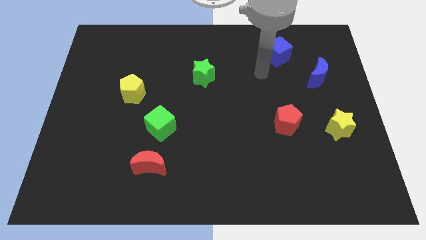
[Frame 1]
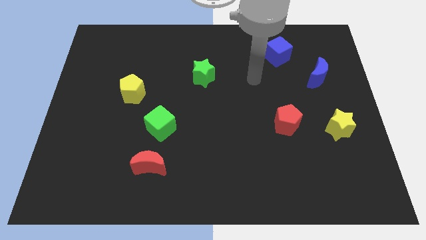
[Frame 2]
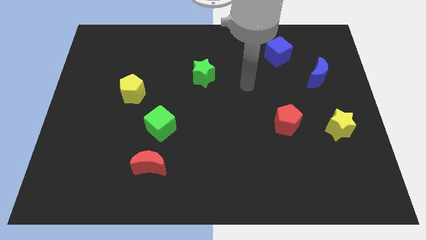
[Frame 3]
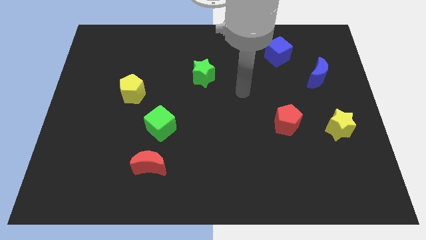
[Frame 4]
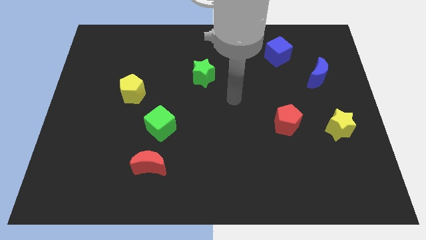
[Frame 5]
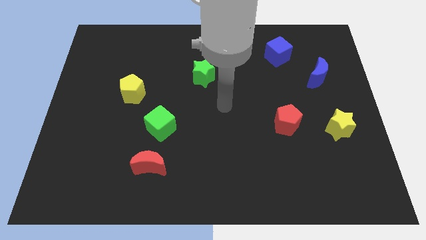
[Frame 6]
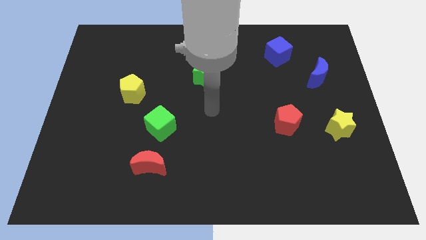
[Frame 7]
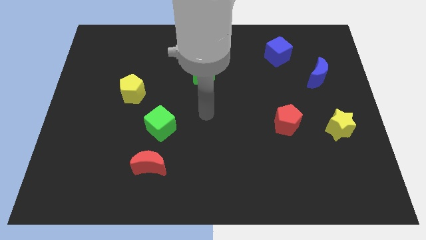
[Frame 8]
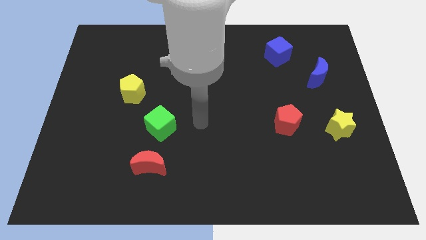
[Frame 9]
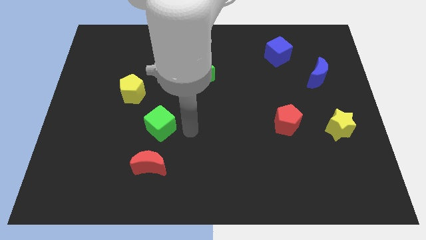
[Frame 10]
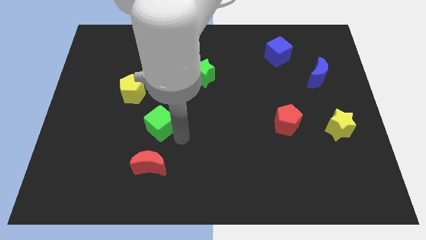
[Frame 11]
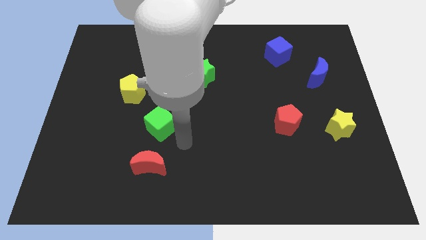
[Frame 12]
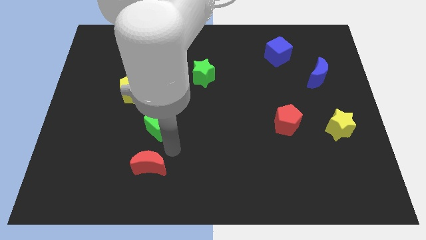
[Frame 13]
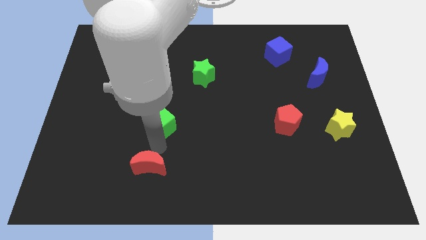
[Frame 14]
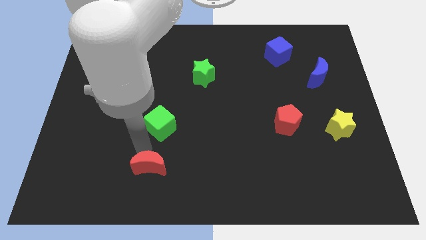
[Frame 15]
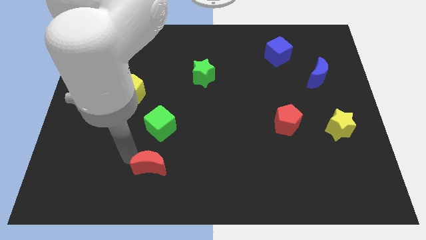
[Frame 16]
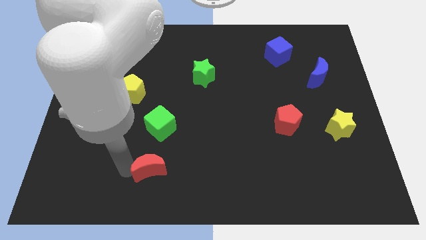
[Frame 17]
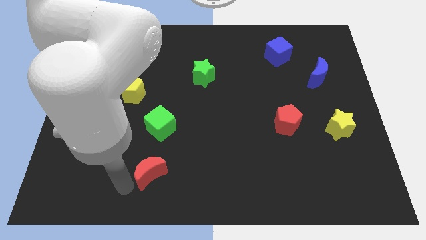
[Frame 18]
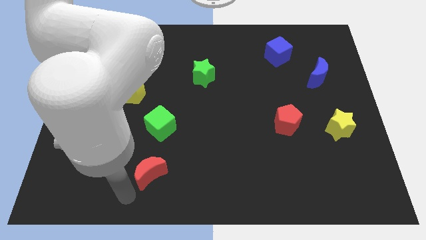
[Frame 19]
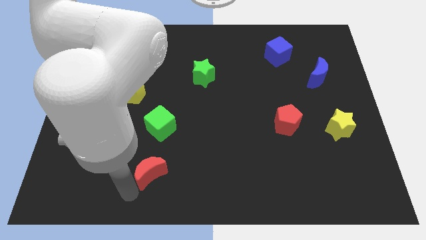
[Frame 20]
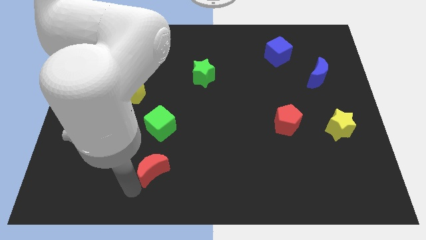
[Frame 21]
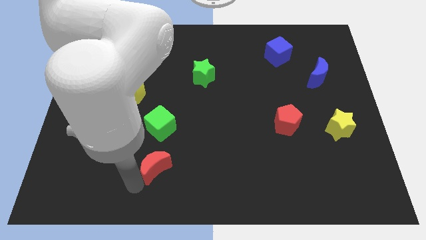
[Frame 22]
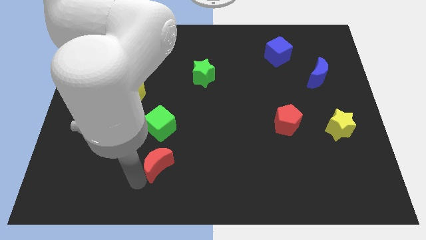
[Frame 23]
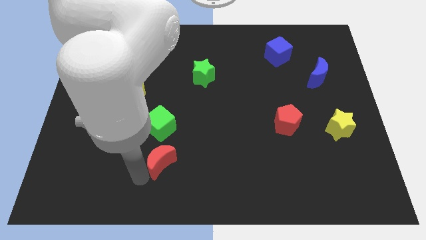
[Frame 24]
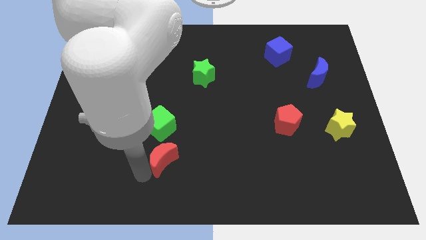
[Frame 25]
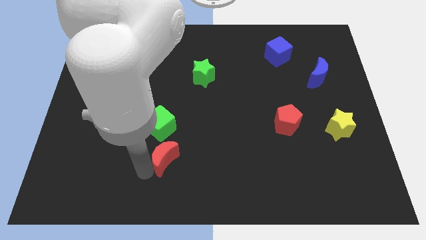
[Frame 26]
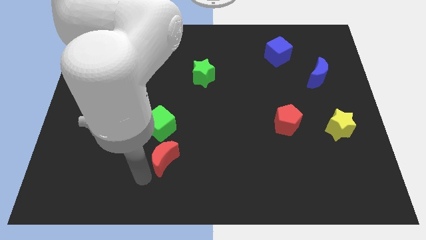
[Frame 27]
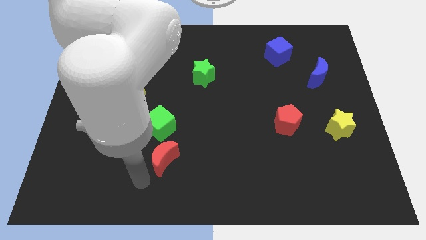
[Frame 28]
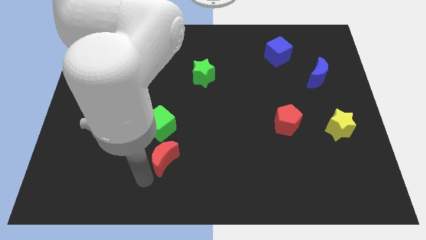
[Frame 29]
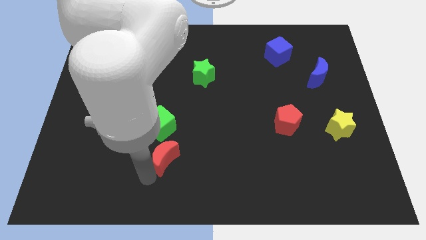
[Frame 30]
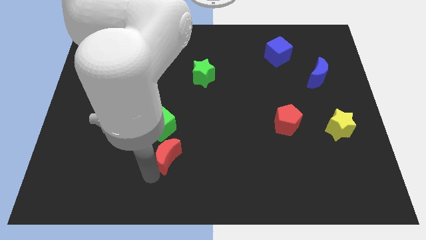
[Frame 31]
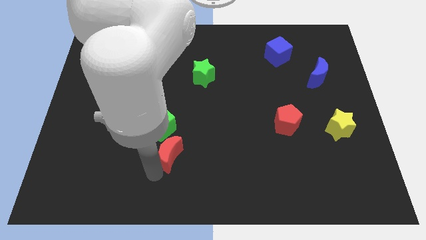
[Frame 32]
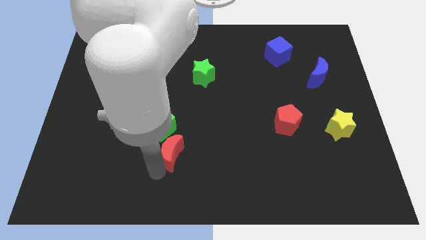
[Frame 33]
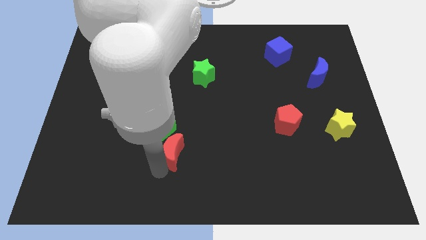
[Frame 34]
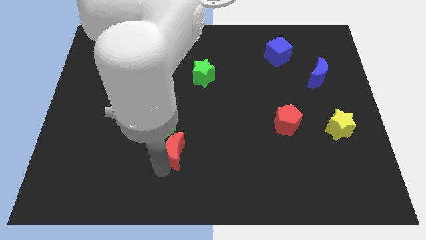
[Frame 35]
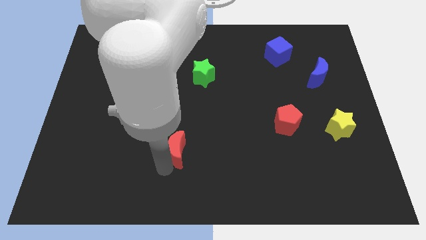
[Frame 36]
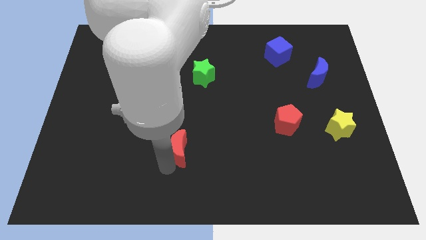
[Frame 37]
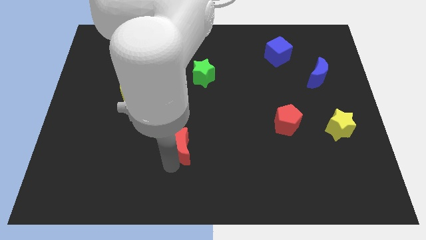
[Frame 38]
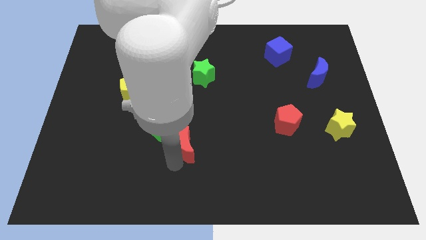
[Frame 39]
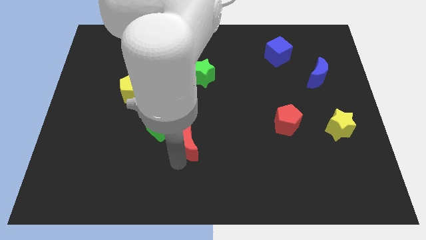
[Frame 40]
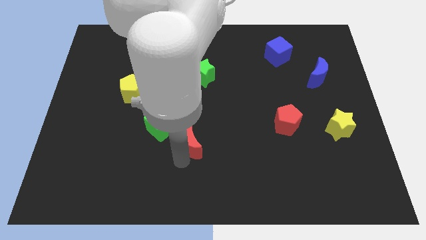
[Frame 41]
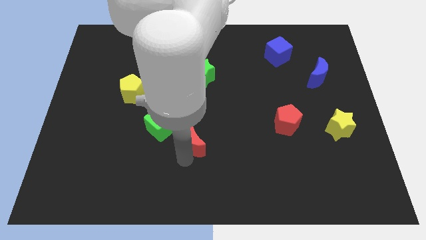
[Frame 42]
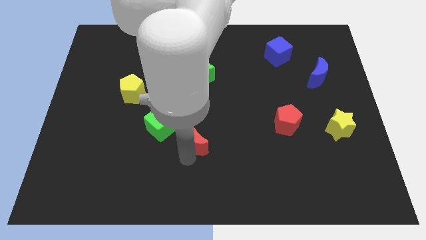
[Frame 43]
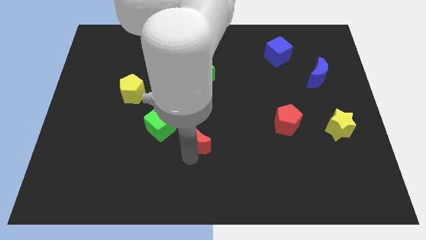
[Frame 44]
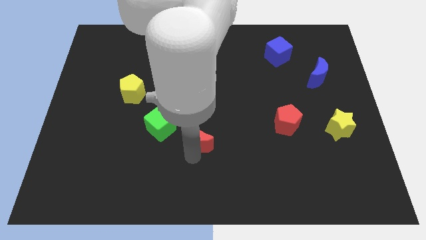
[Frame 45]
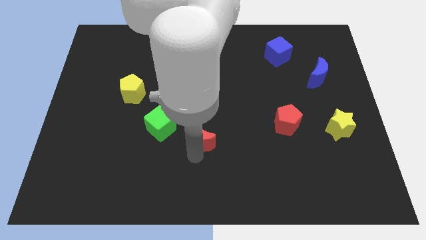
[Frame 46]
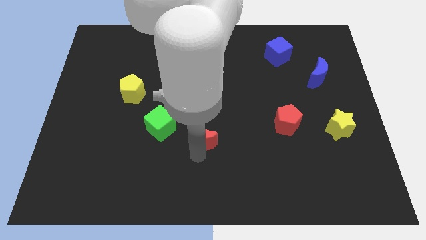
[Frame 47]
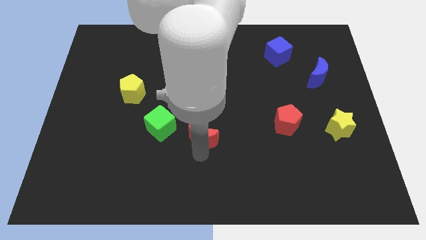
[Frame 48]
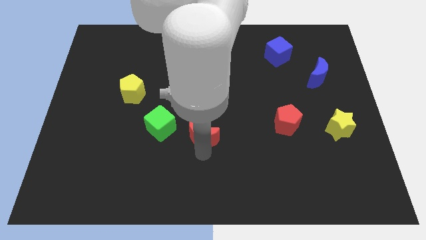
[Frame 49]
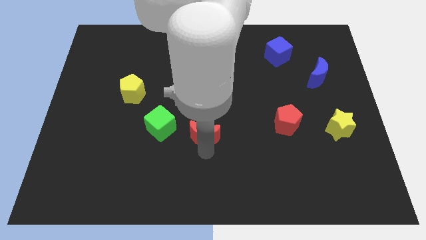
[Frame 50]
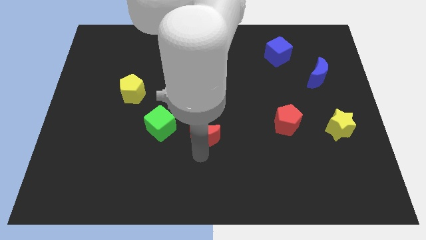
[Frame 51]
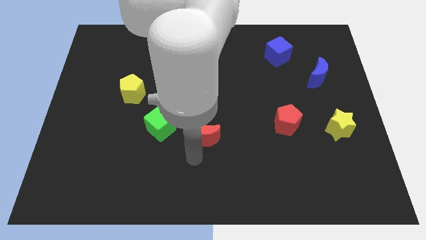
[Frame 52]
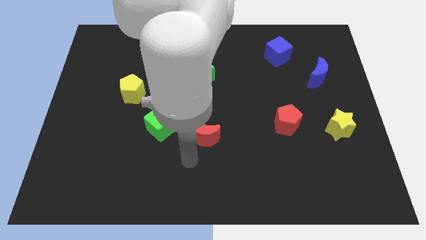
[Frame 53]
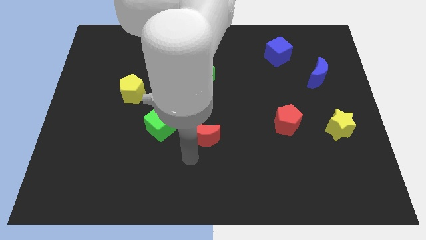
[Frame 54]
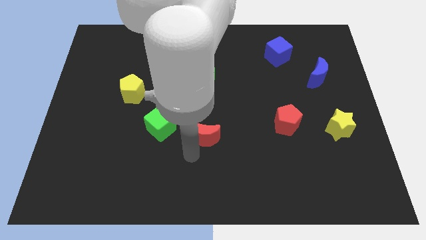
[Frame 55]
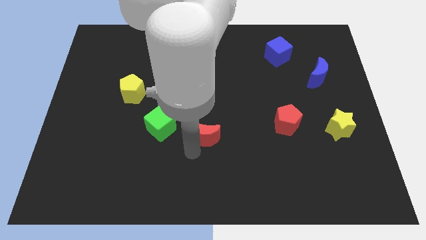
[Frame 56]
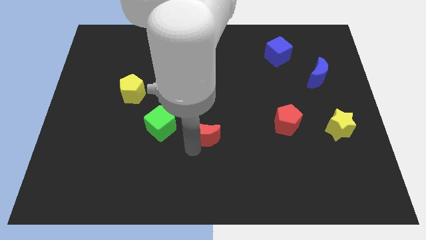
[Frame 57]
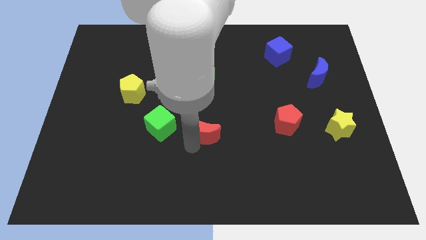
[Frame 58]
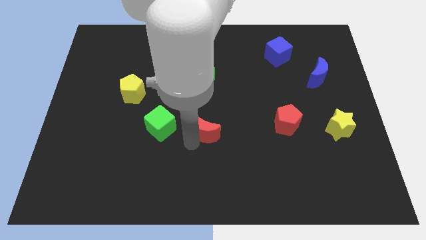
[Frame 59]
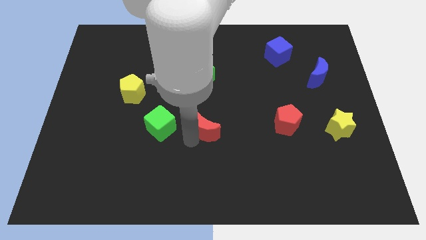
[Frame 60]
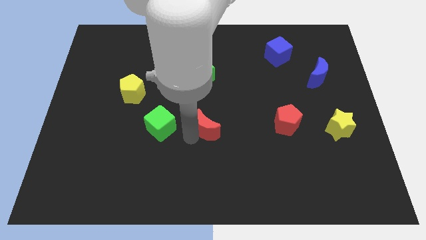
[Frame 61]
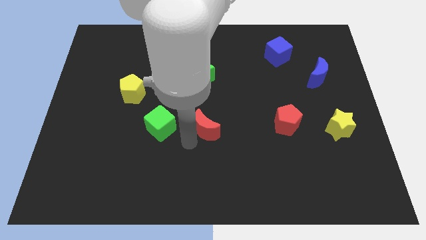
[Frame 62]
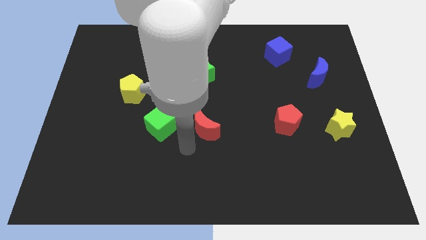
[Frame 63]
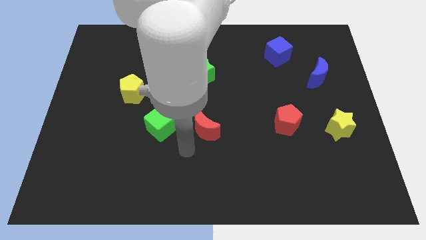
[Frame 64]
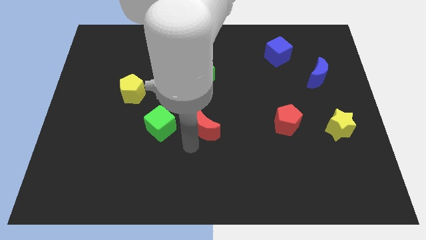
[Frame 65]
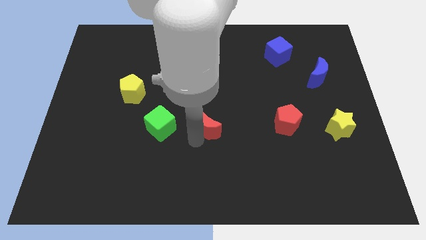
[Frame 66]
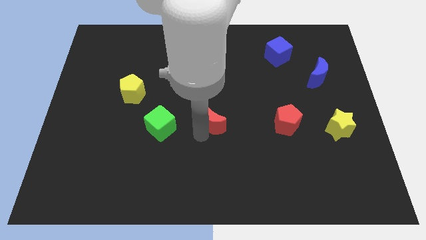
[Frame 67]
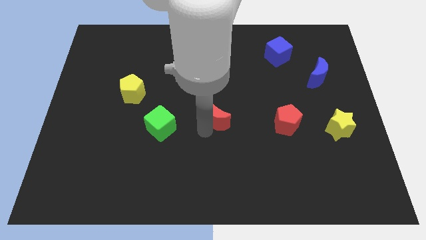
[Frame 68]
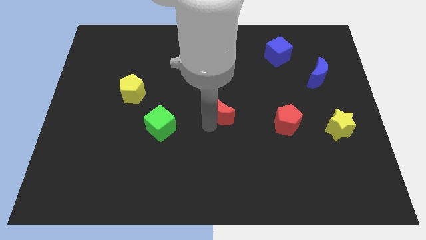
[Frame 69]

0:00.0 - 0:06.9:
move the red moon diagonally upwards and to the right

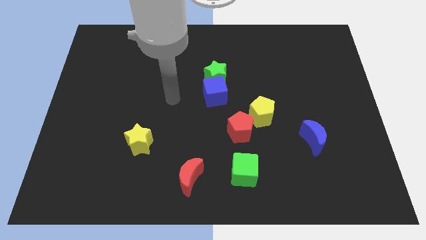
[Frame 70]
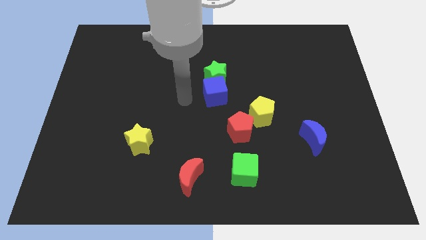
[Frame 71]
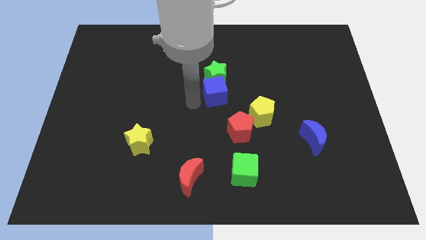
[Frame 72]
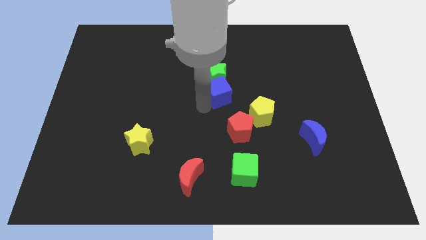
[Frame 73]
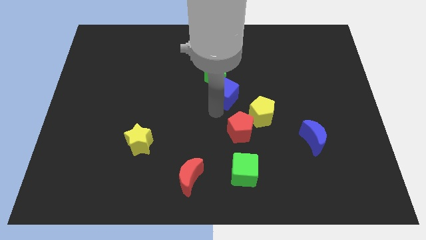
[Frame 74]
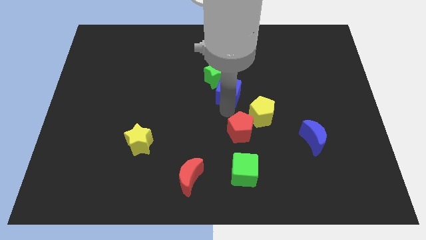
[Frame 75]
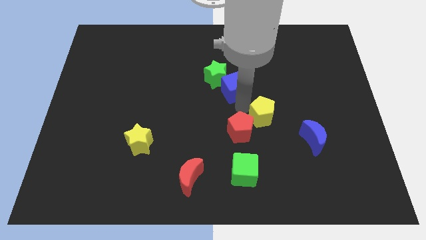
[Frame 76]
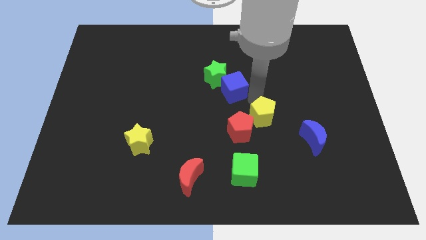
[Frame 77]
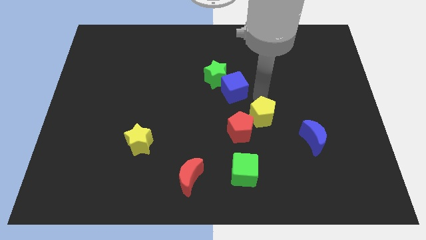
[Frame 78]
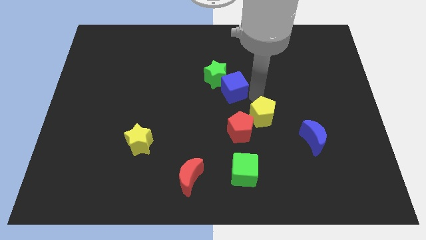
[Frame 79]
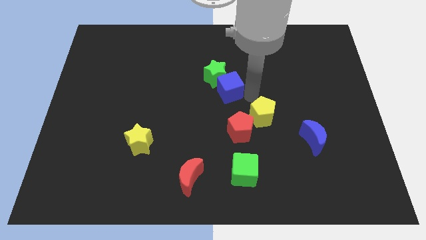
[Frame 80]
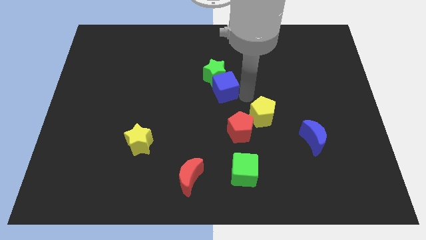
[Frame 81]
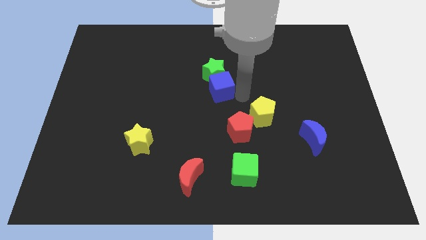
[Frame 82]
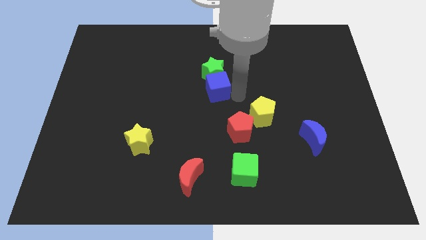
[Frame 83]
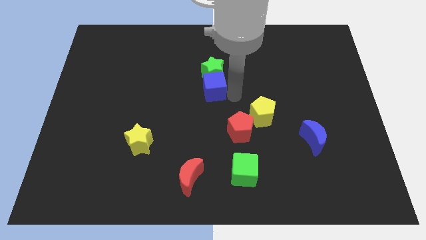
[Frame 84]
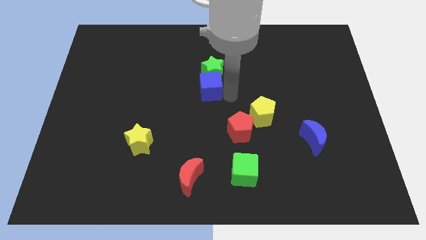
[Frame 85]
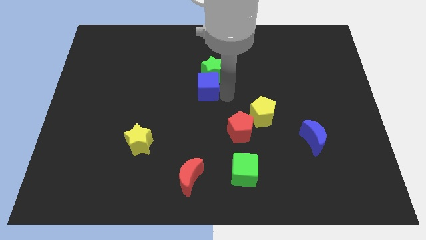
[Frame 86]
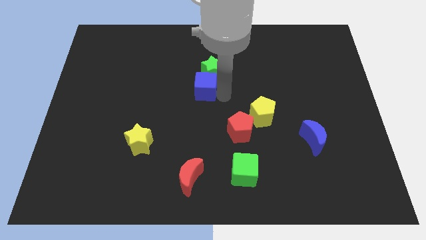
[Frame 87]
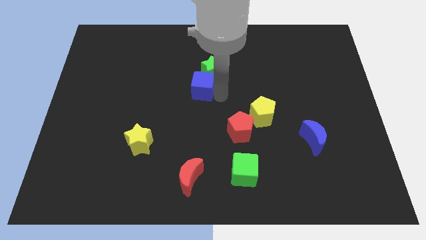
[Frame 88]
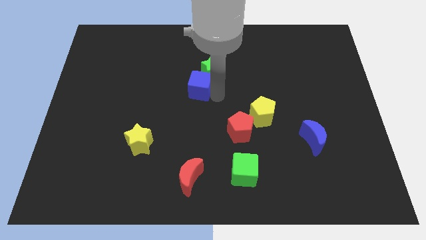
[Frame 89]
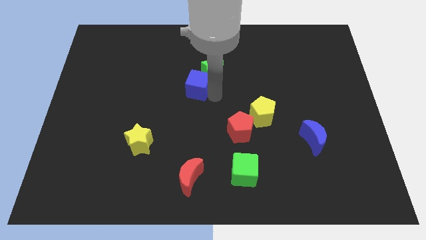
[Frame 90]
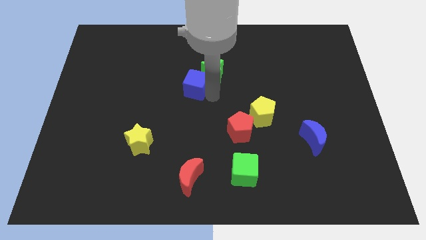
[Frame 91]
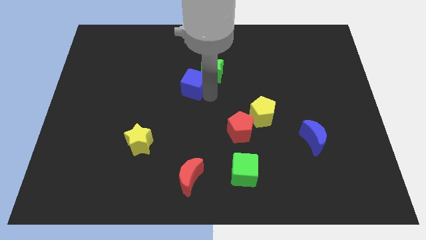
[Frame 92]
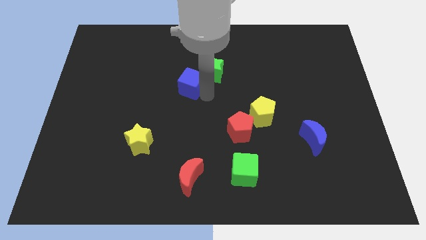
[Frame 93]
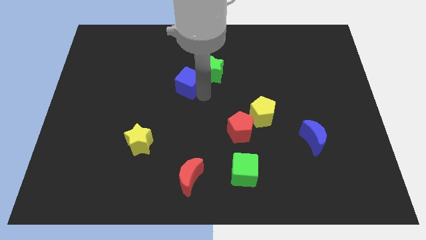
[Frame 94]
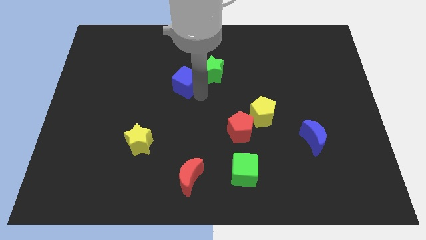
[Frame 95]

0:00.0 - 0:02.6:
slide the blue cube upwards and to the left diagonally a bit
